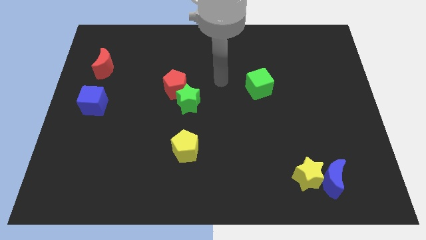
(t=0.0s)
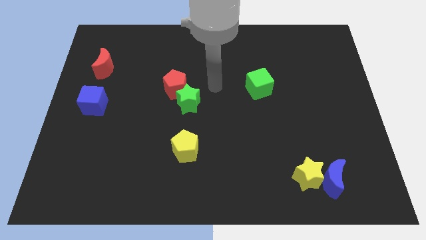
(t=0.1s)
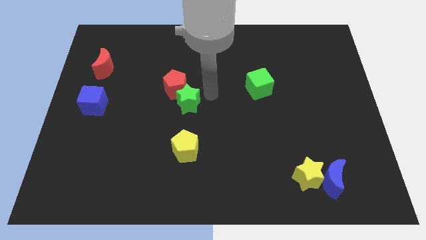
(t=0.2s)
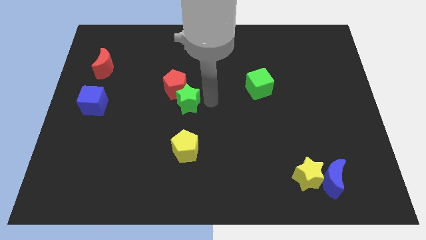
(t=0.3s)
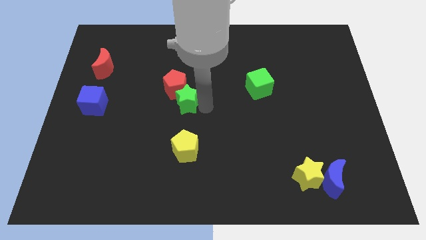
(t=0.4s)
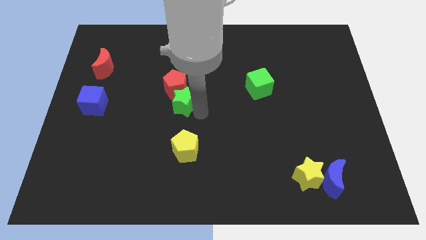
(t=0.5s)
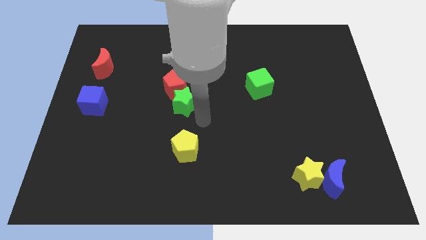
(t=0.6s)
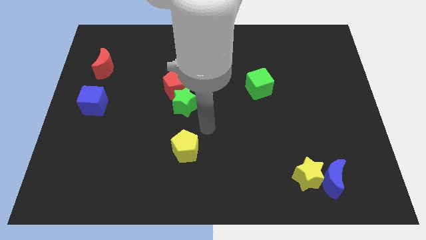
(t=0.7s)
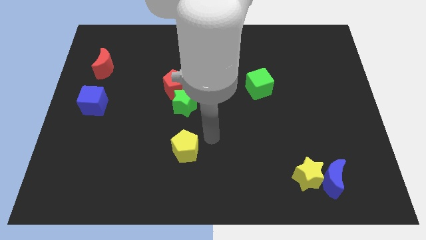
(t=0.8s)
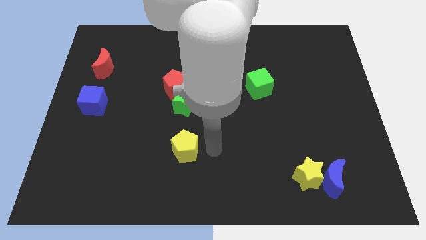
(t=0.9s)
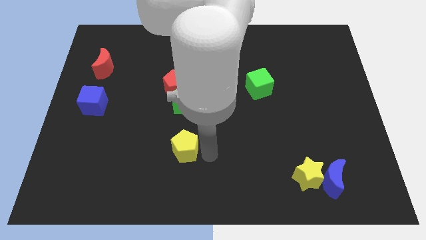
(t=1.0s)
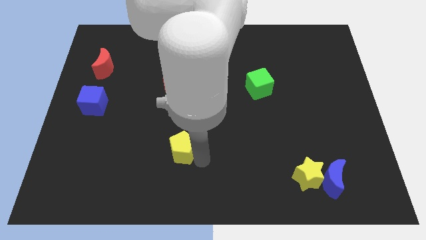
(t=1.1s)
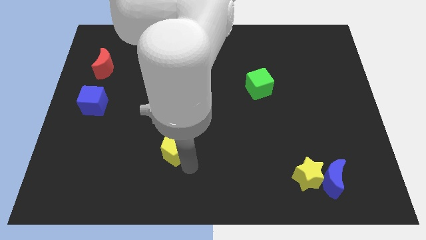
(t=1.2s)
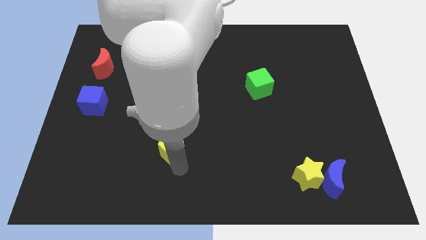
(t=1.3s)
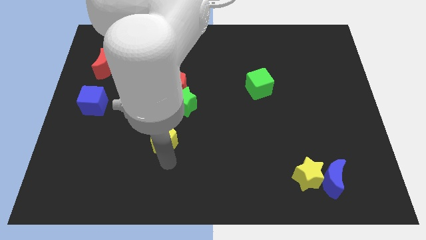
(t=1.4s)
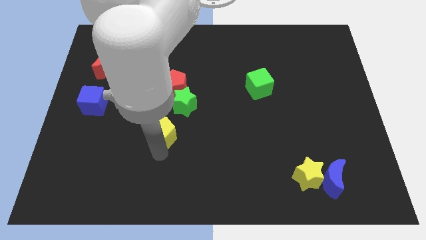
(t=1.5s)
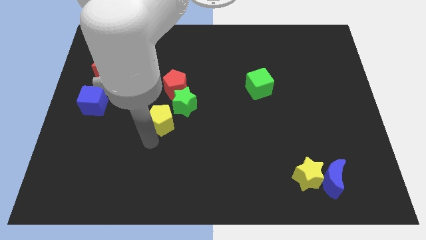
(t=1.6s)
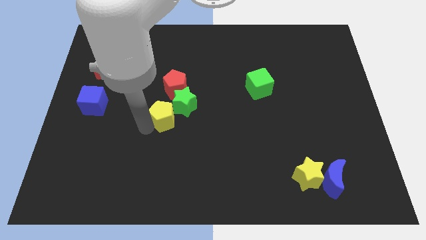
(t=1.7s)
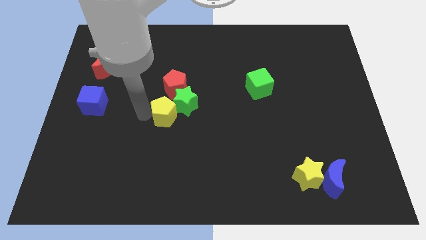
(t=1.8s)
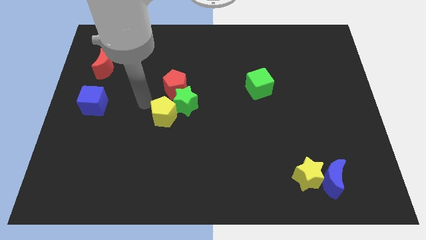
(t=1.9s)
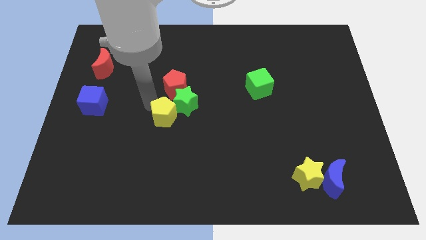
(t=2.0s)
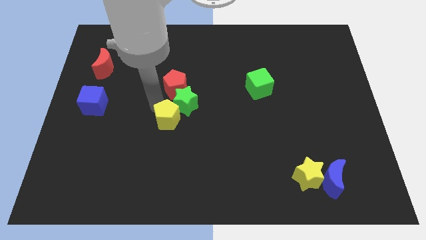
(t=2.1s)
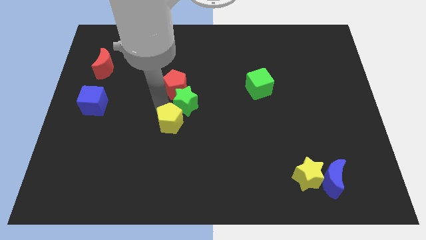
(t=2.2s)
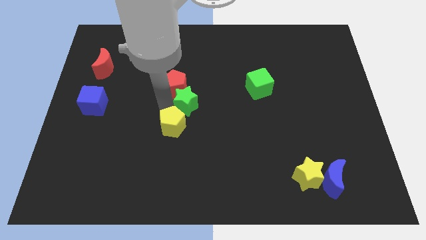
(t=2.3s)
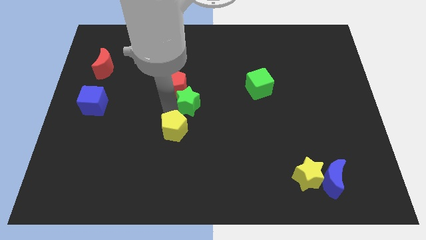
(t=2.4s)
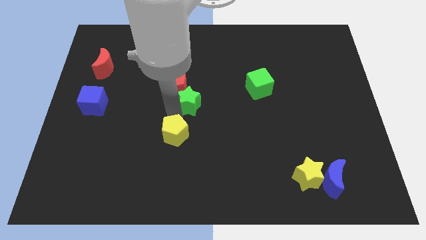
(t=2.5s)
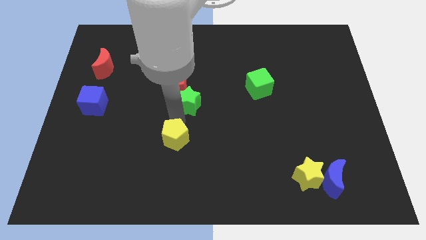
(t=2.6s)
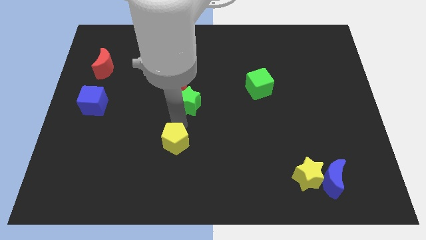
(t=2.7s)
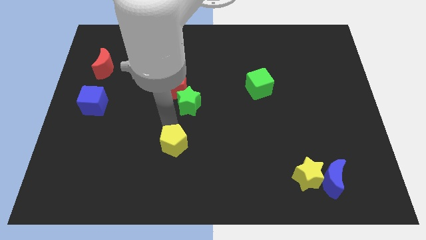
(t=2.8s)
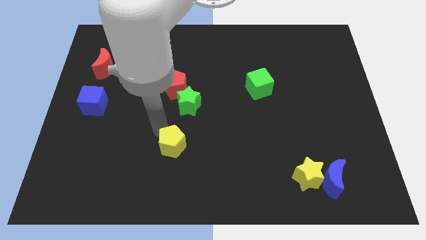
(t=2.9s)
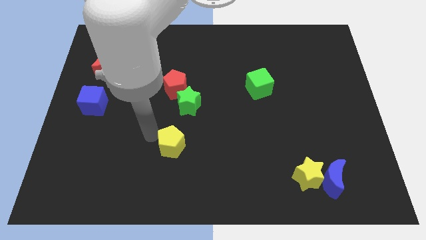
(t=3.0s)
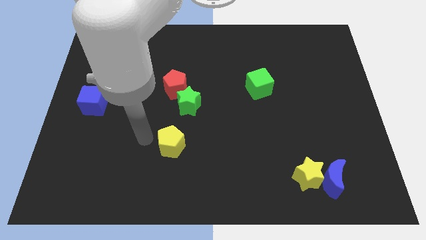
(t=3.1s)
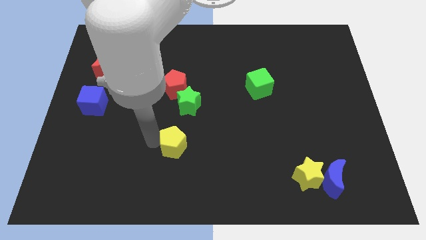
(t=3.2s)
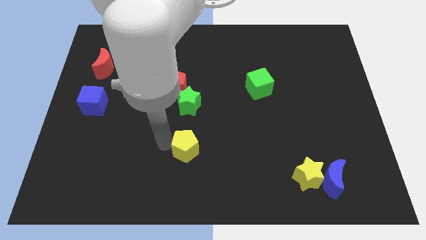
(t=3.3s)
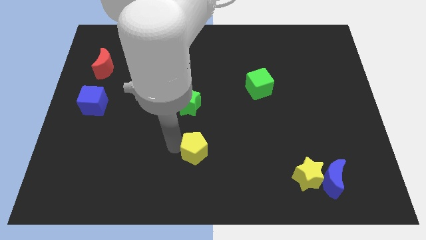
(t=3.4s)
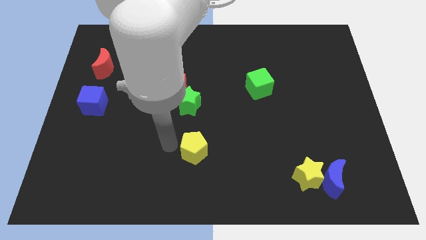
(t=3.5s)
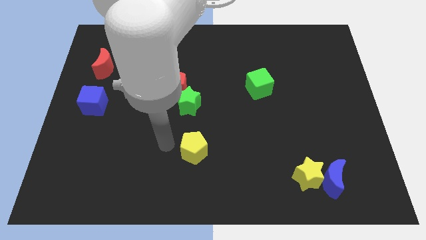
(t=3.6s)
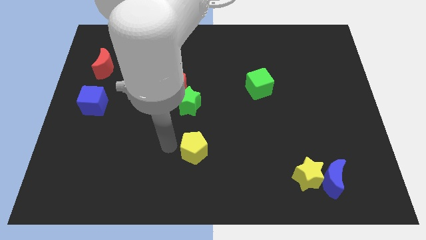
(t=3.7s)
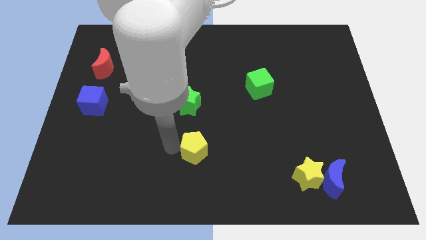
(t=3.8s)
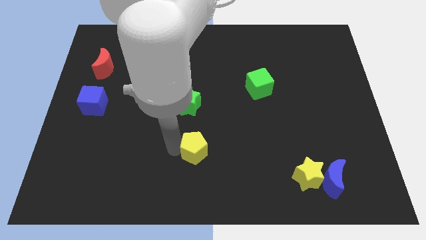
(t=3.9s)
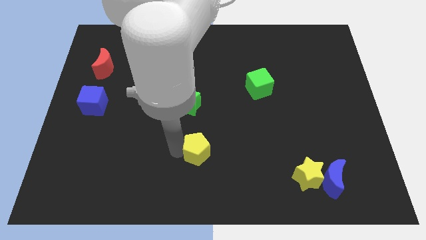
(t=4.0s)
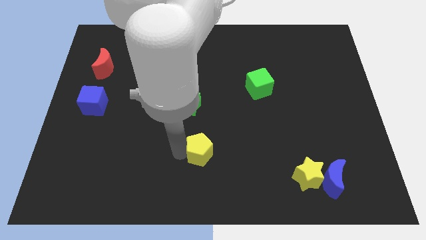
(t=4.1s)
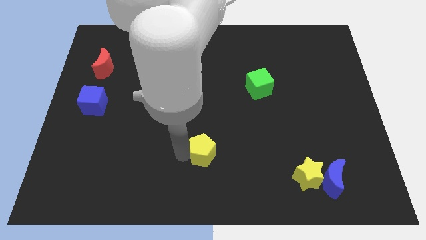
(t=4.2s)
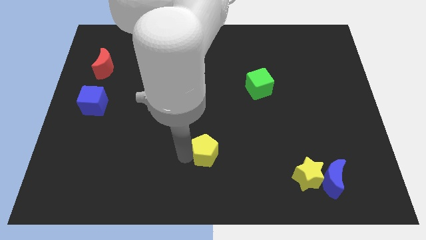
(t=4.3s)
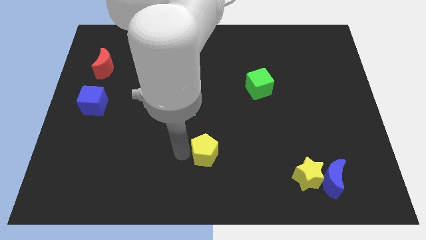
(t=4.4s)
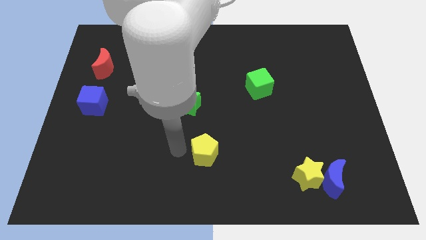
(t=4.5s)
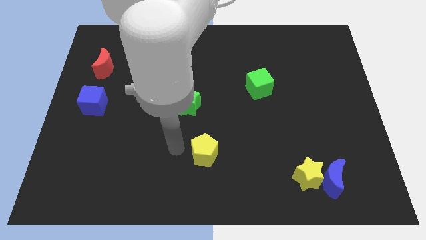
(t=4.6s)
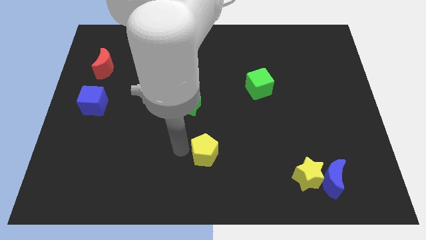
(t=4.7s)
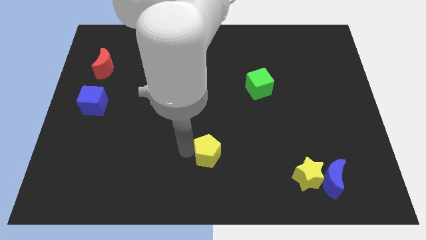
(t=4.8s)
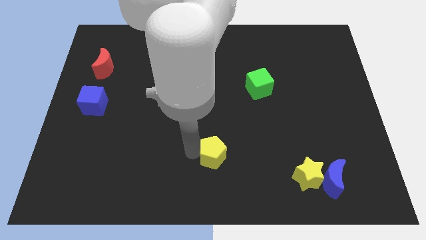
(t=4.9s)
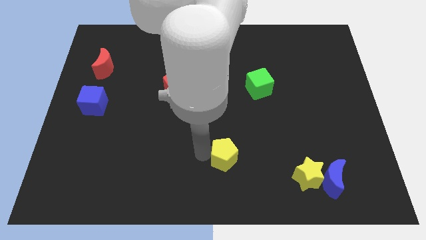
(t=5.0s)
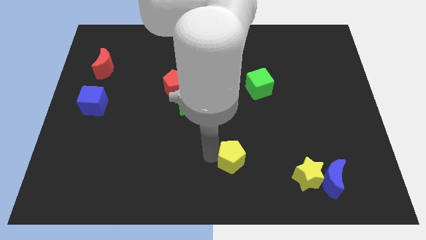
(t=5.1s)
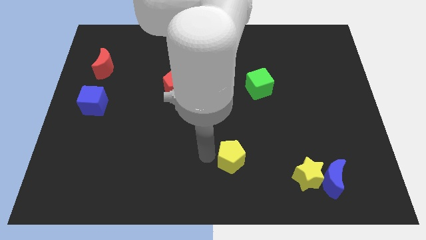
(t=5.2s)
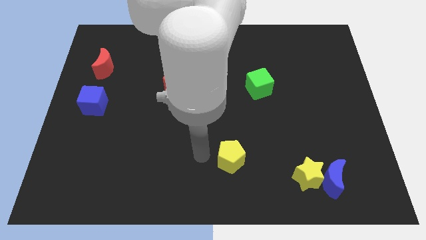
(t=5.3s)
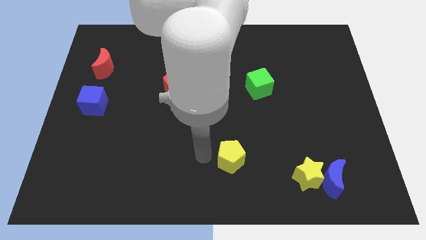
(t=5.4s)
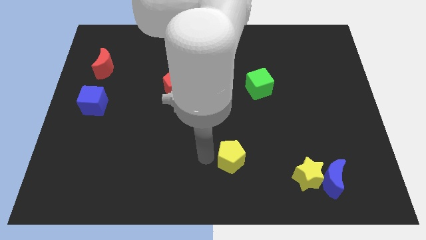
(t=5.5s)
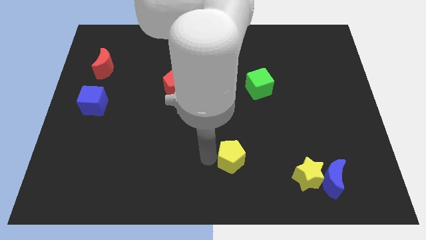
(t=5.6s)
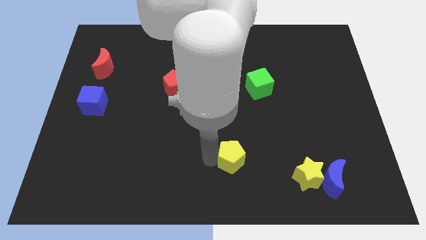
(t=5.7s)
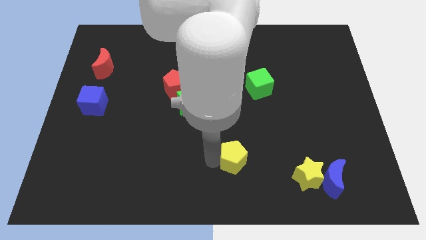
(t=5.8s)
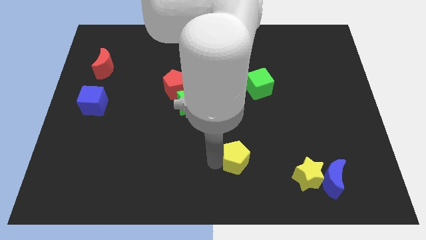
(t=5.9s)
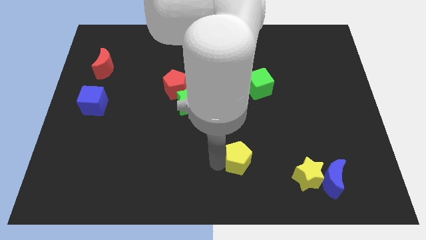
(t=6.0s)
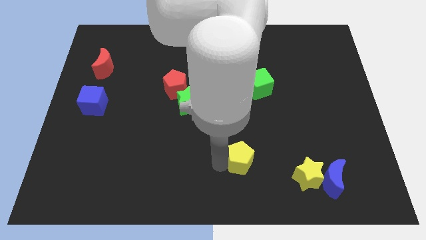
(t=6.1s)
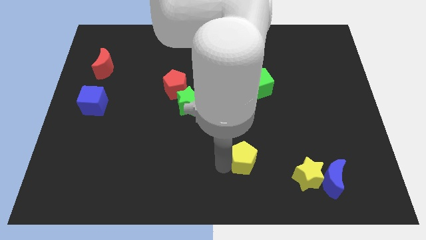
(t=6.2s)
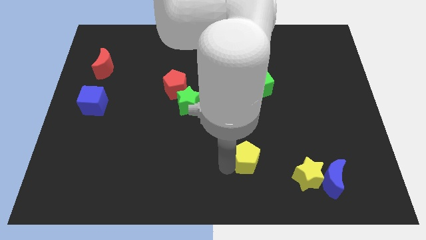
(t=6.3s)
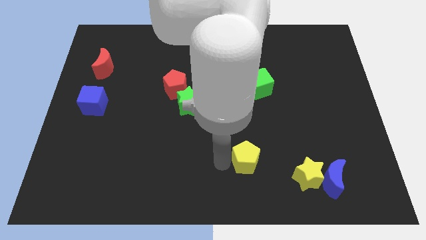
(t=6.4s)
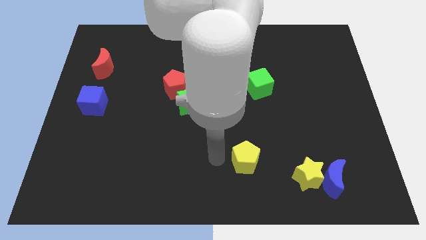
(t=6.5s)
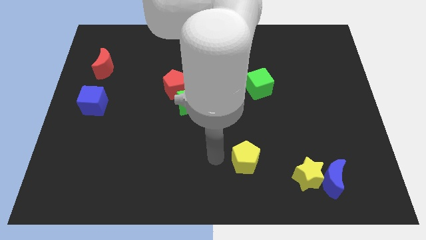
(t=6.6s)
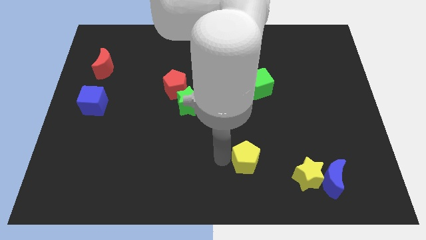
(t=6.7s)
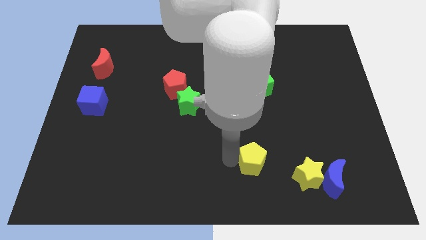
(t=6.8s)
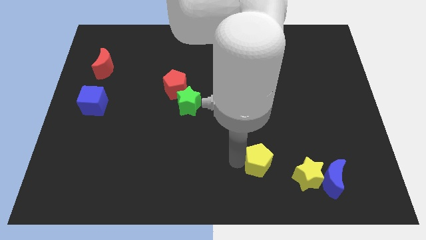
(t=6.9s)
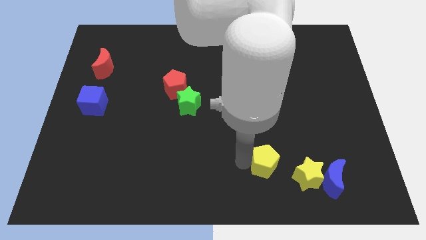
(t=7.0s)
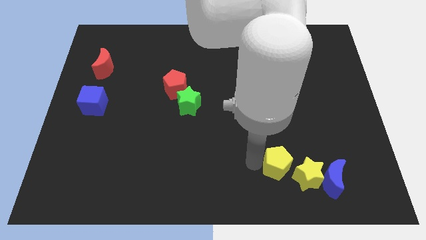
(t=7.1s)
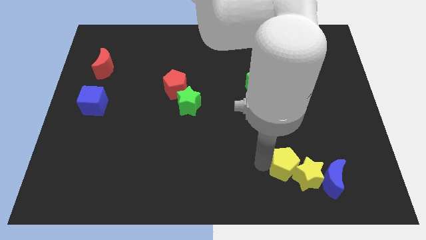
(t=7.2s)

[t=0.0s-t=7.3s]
slide the yellow pentagon close to the yellow star

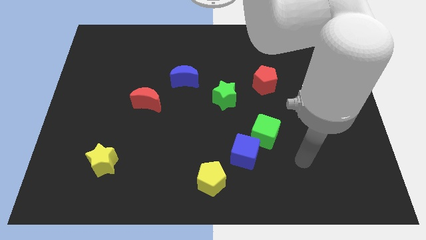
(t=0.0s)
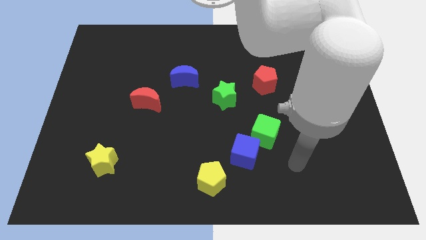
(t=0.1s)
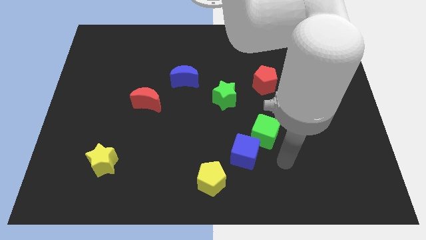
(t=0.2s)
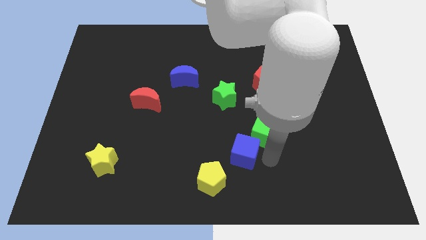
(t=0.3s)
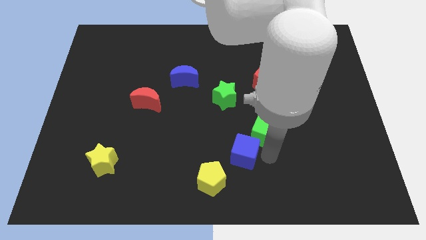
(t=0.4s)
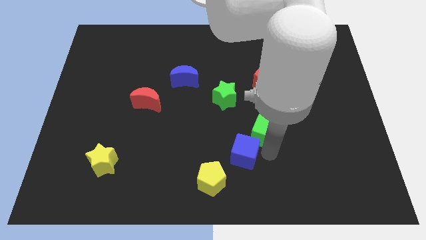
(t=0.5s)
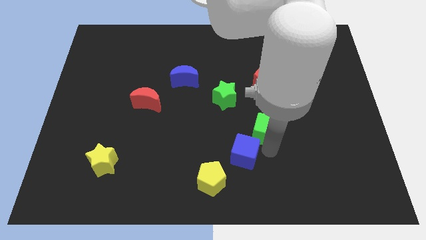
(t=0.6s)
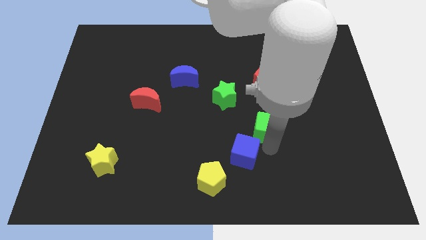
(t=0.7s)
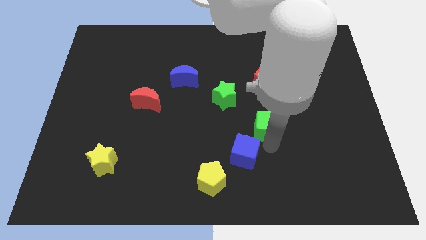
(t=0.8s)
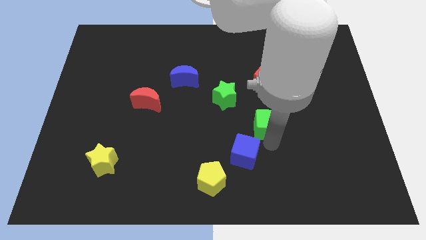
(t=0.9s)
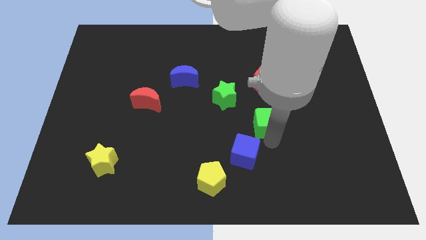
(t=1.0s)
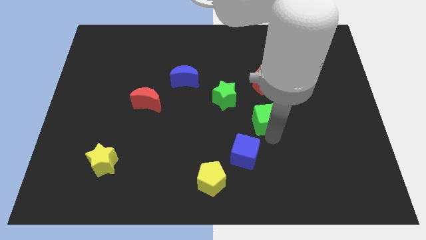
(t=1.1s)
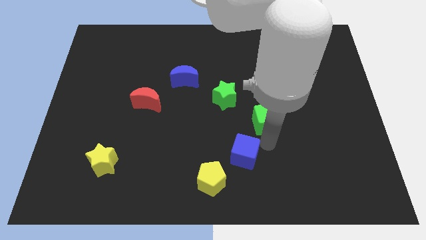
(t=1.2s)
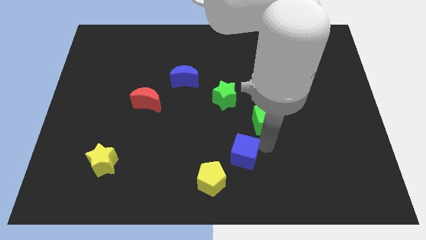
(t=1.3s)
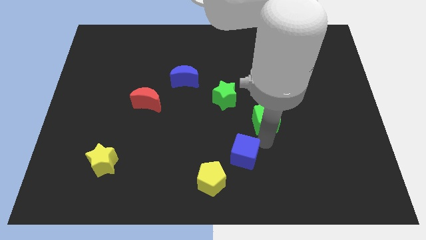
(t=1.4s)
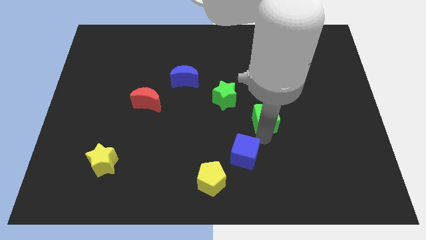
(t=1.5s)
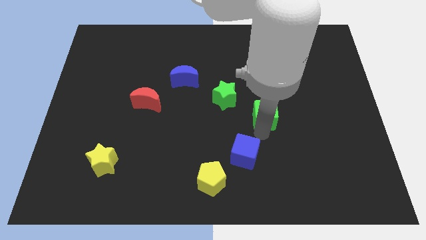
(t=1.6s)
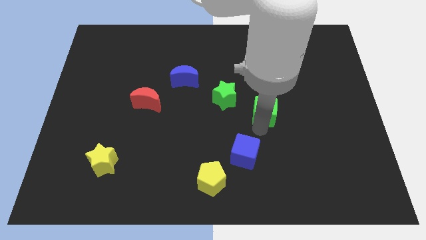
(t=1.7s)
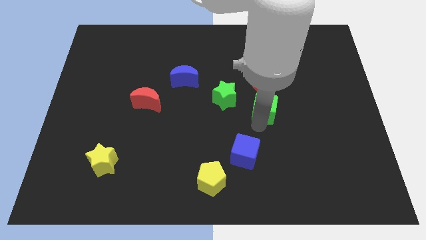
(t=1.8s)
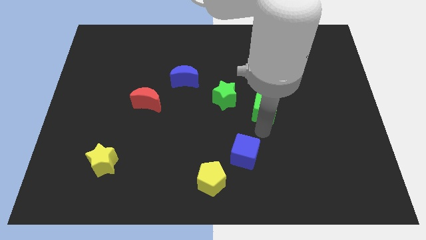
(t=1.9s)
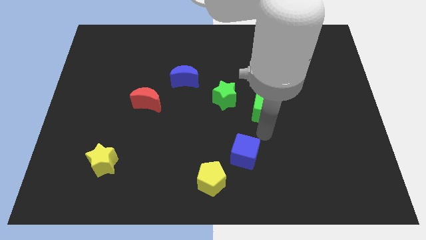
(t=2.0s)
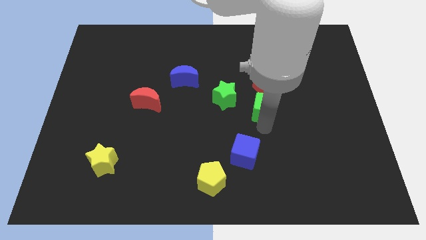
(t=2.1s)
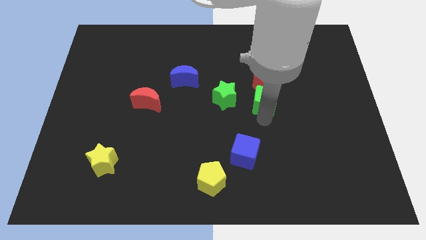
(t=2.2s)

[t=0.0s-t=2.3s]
put the green cube towards the red pentagon
